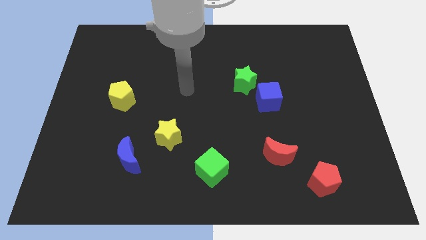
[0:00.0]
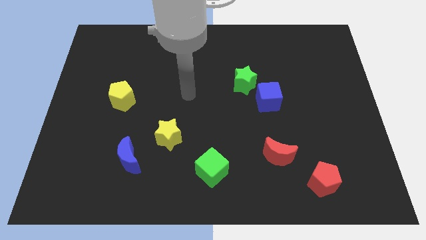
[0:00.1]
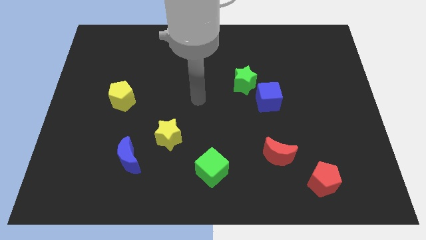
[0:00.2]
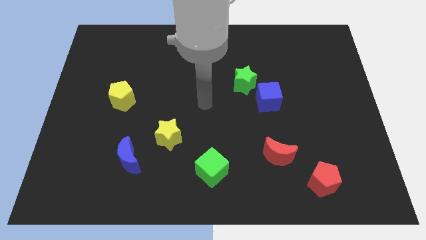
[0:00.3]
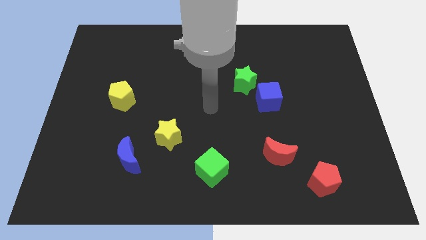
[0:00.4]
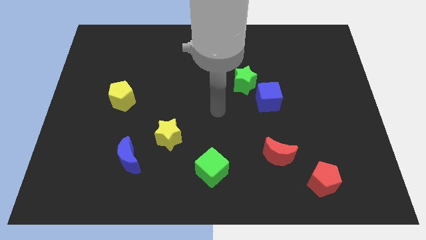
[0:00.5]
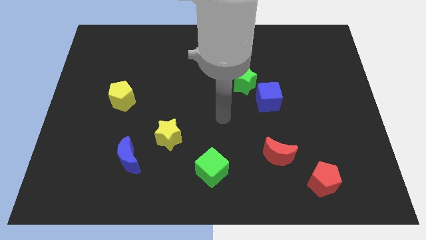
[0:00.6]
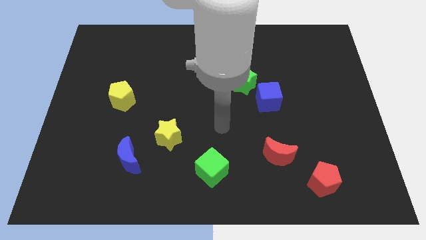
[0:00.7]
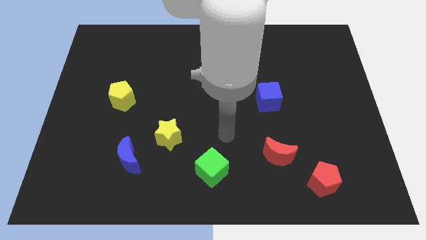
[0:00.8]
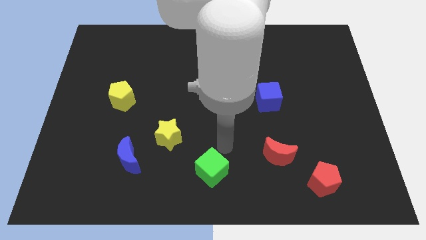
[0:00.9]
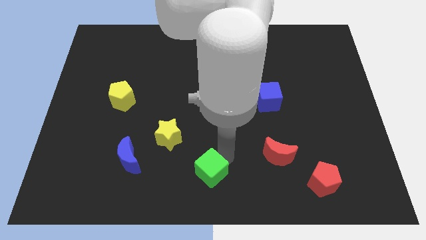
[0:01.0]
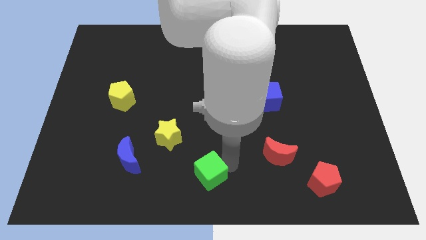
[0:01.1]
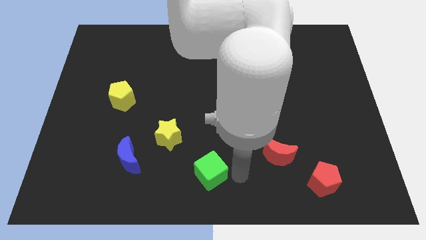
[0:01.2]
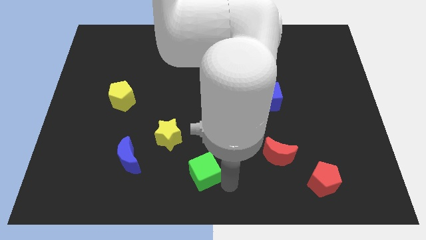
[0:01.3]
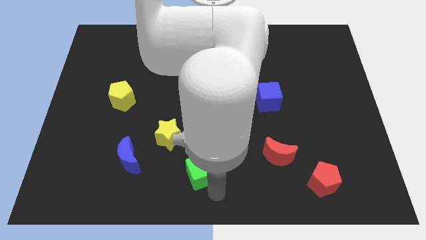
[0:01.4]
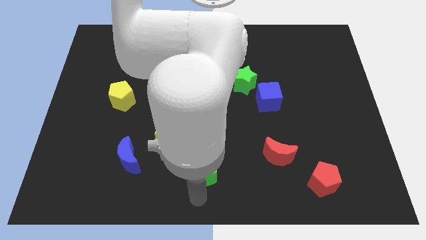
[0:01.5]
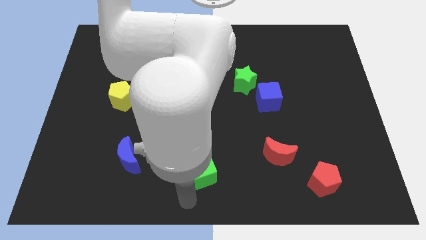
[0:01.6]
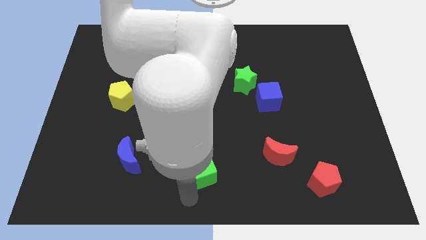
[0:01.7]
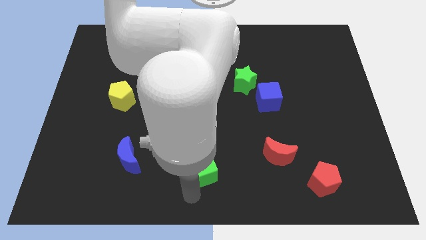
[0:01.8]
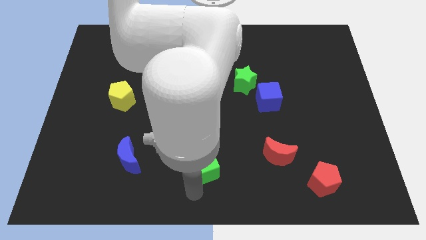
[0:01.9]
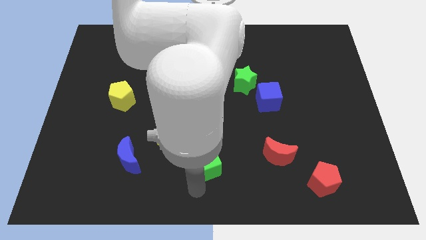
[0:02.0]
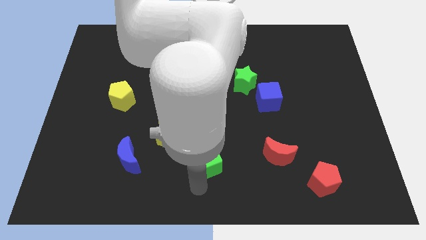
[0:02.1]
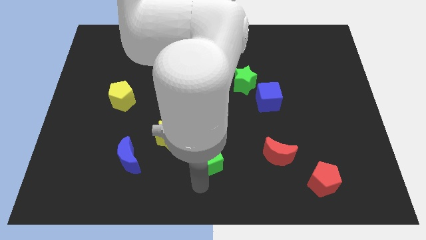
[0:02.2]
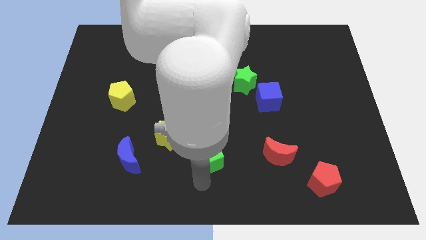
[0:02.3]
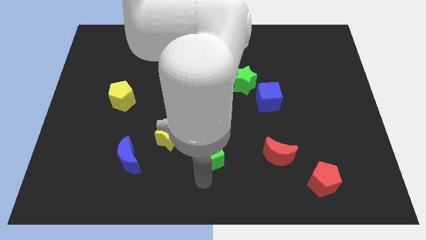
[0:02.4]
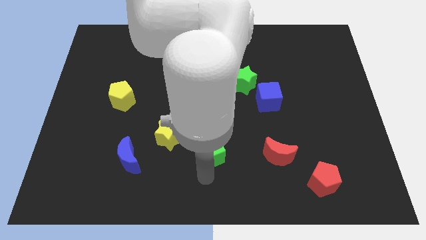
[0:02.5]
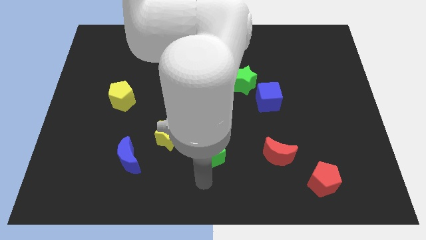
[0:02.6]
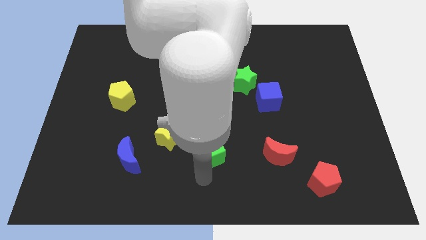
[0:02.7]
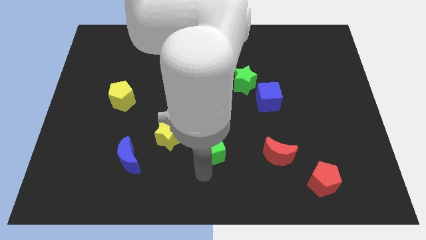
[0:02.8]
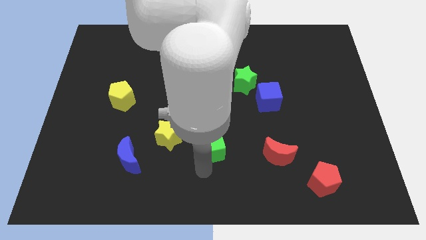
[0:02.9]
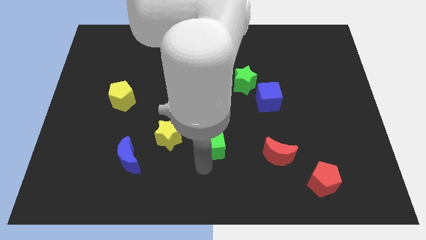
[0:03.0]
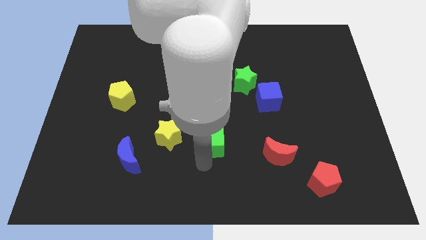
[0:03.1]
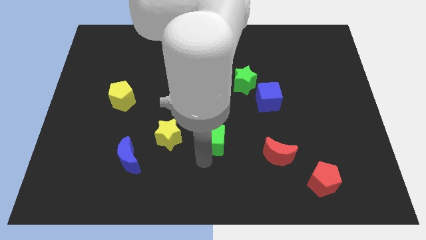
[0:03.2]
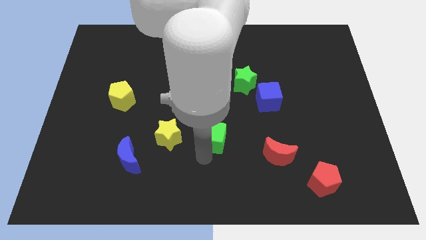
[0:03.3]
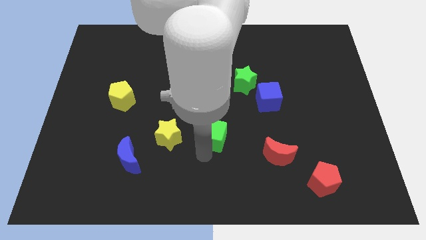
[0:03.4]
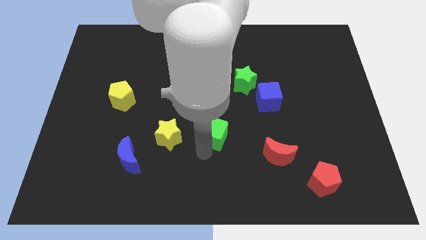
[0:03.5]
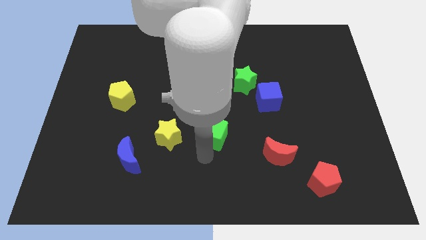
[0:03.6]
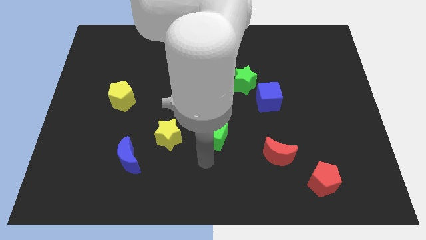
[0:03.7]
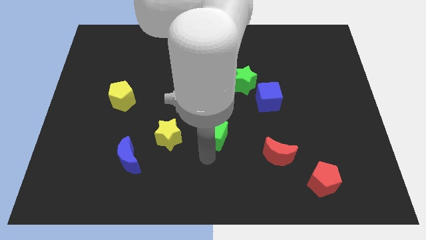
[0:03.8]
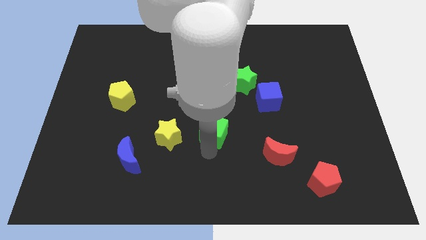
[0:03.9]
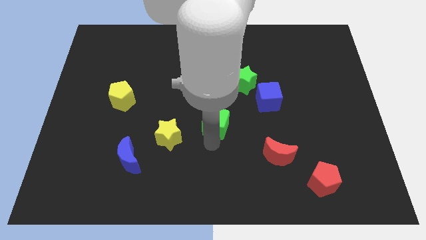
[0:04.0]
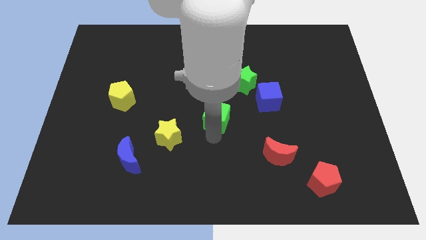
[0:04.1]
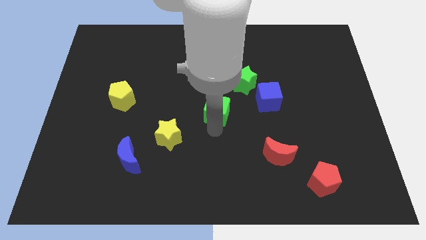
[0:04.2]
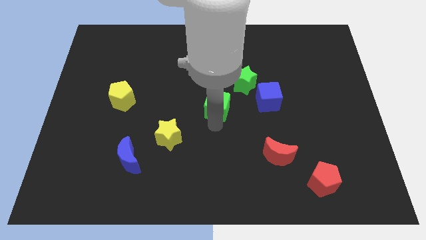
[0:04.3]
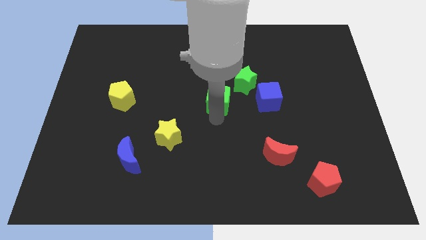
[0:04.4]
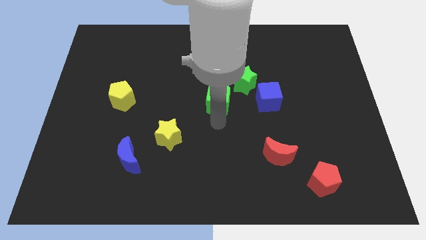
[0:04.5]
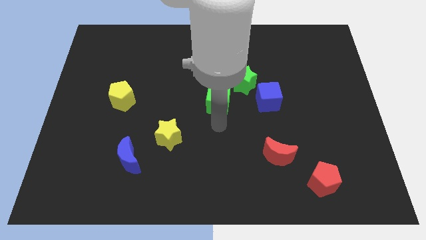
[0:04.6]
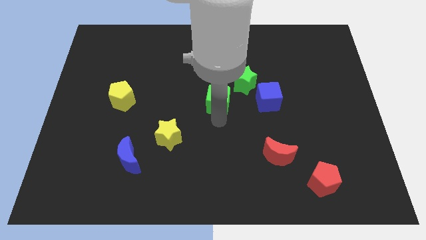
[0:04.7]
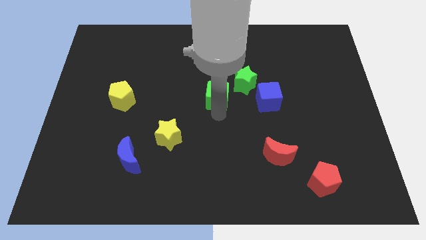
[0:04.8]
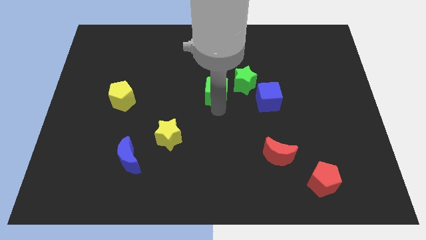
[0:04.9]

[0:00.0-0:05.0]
slide the green cube up

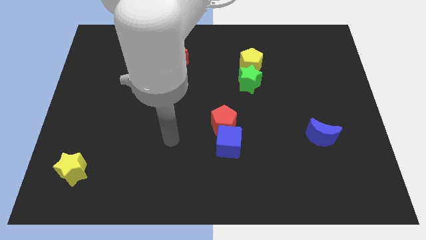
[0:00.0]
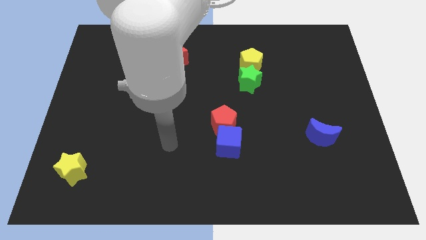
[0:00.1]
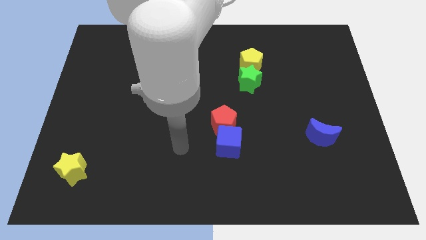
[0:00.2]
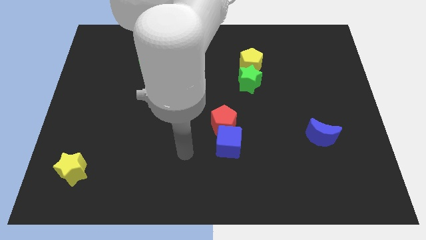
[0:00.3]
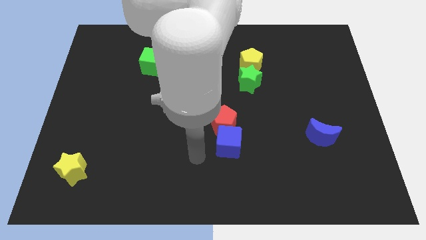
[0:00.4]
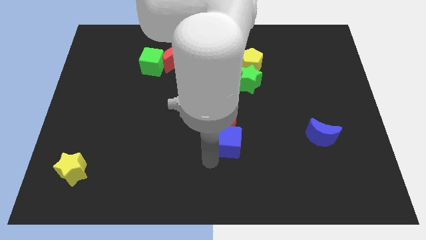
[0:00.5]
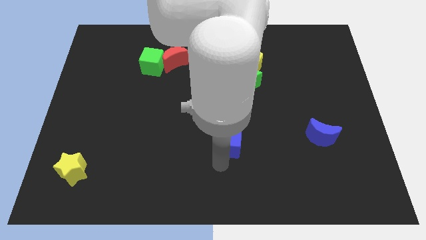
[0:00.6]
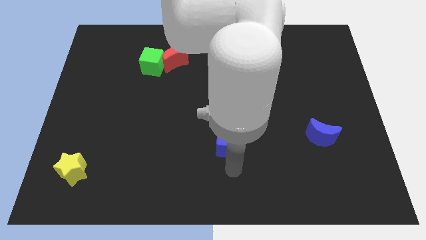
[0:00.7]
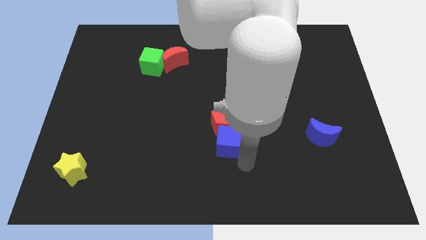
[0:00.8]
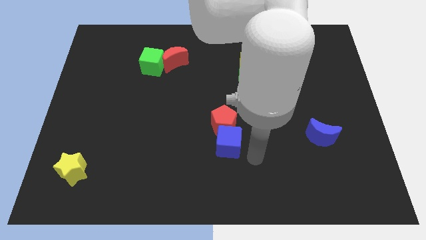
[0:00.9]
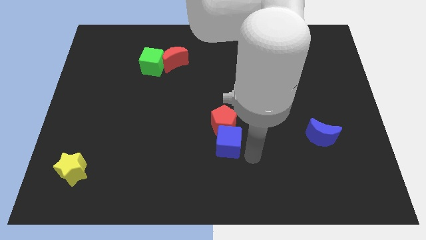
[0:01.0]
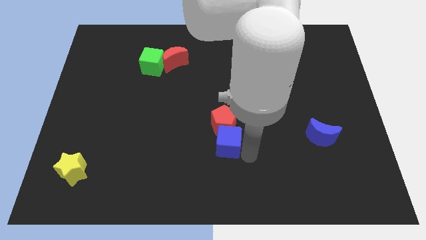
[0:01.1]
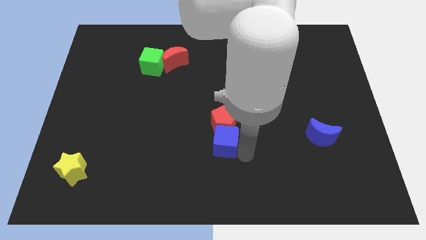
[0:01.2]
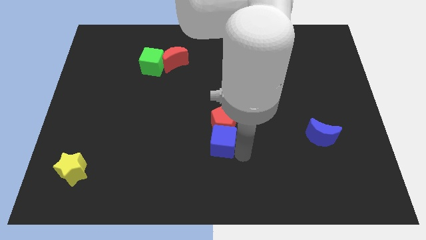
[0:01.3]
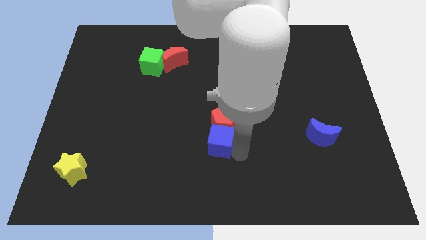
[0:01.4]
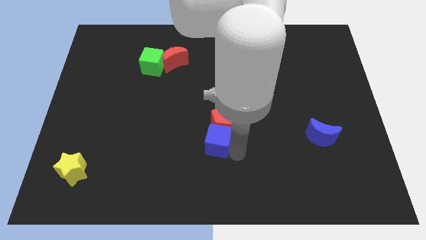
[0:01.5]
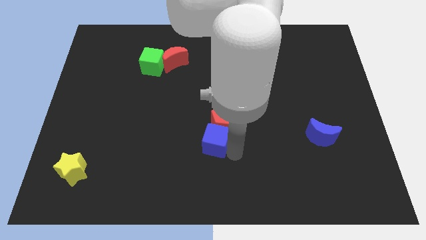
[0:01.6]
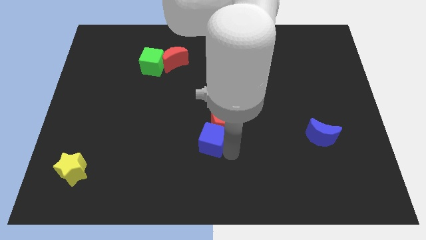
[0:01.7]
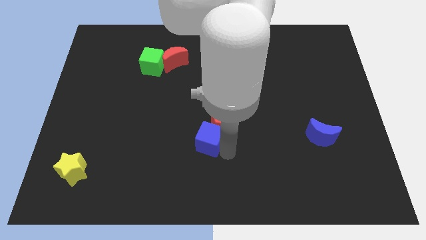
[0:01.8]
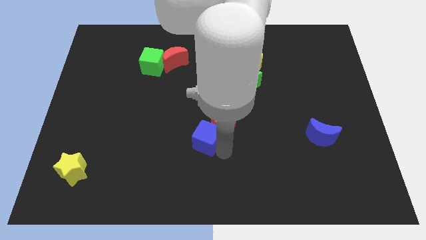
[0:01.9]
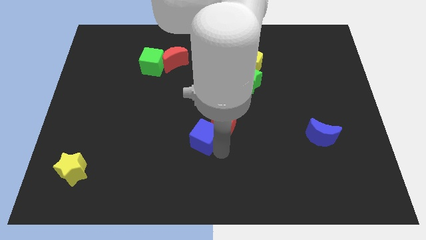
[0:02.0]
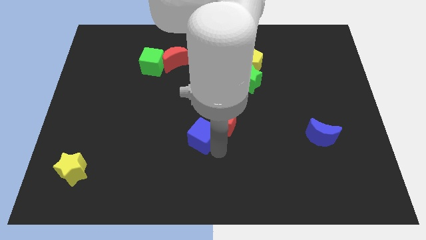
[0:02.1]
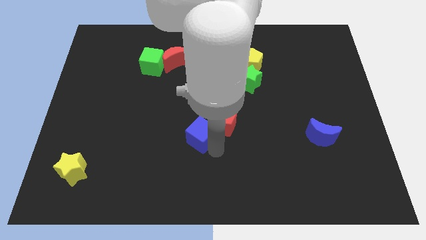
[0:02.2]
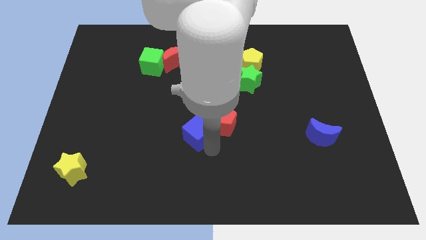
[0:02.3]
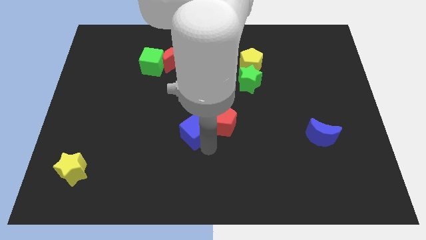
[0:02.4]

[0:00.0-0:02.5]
slide the blue cube up and left diagonally slightly

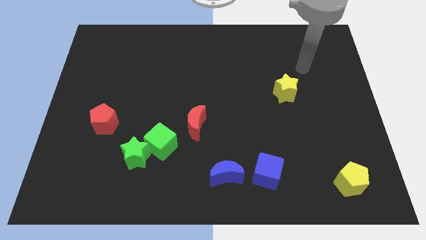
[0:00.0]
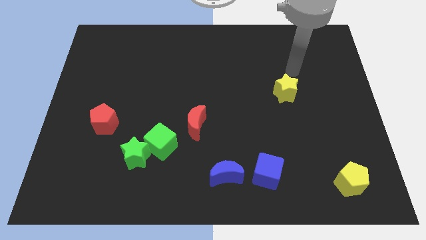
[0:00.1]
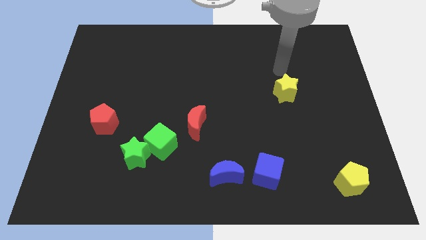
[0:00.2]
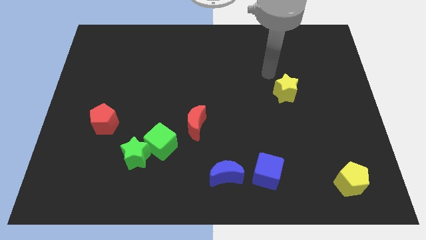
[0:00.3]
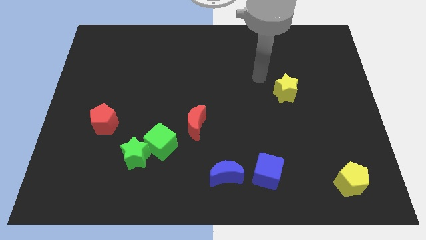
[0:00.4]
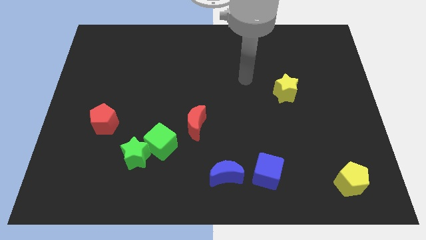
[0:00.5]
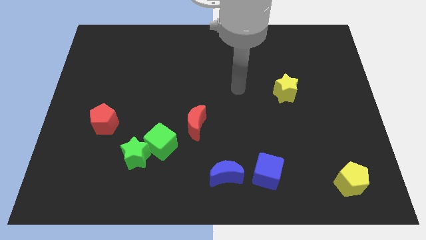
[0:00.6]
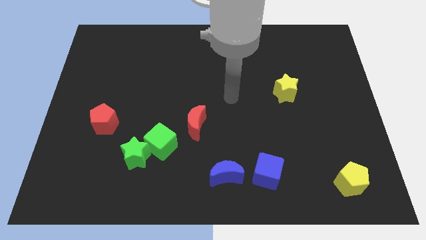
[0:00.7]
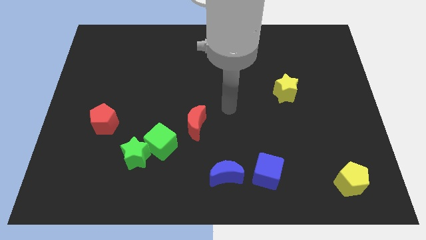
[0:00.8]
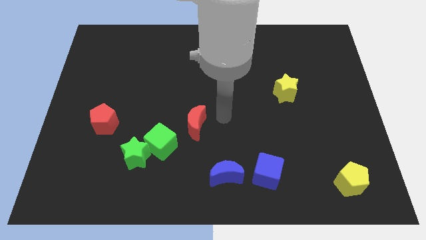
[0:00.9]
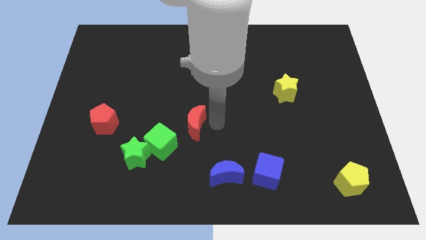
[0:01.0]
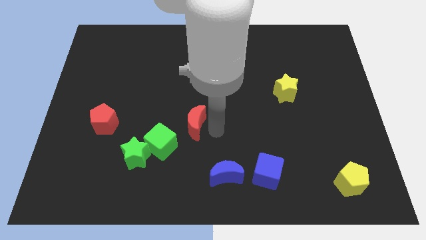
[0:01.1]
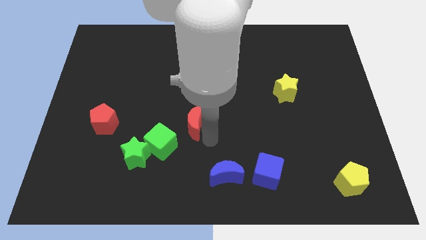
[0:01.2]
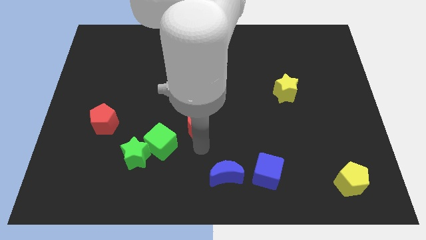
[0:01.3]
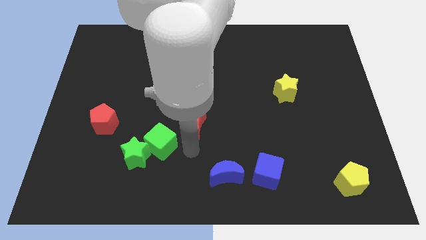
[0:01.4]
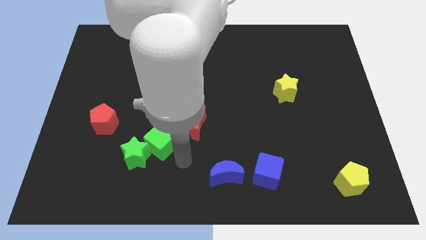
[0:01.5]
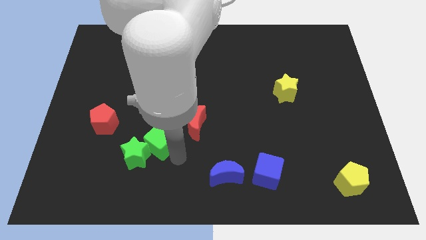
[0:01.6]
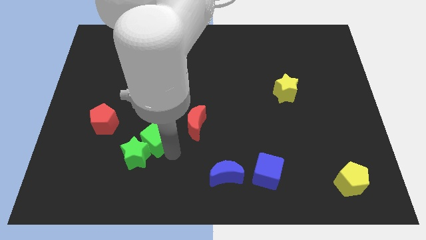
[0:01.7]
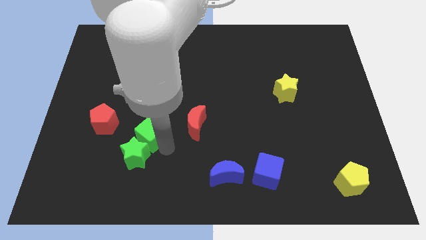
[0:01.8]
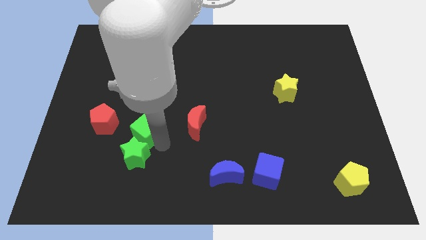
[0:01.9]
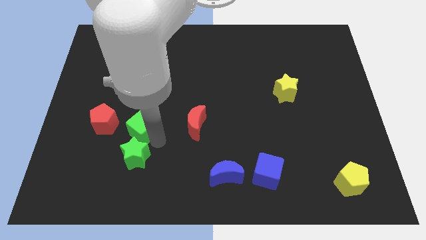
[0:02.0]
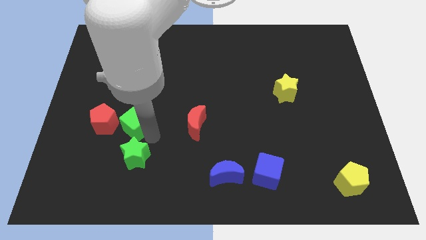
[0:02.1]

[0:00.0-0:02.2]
move the green cube diagonally up and left slightly
